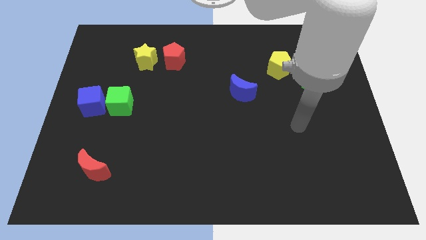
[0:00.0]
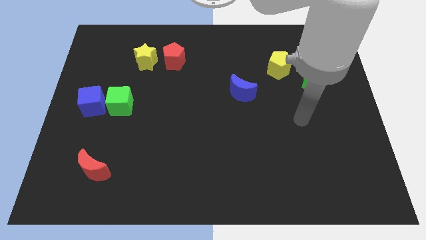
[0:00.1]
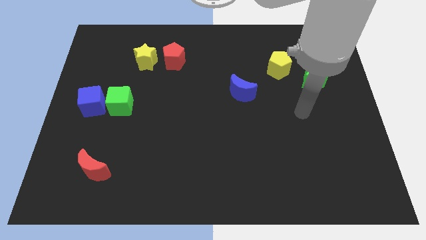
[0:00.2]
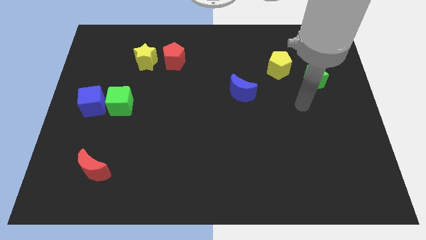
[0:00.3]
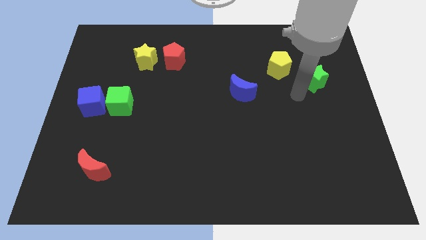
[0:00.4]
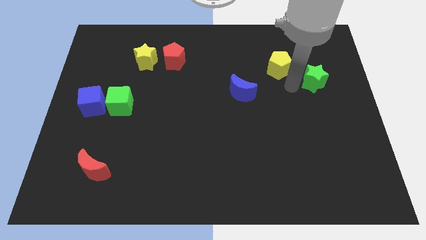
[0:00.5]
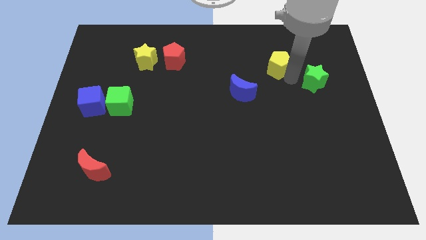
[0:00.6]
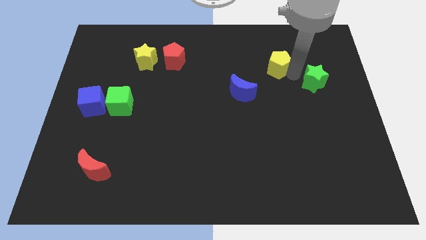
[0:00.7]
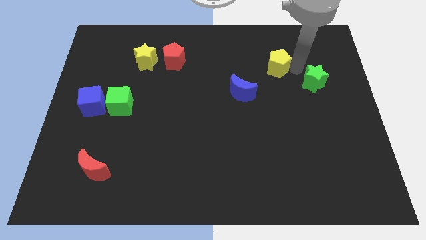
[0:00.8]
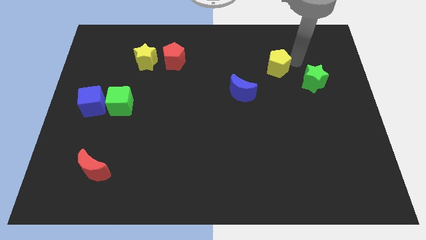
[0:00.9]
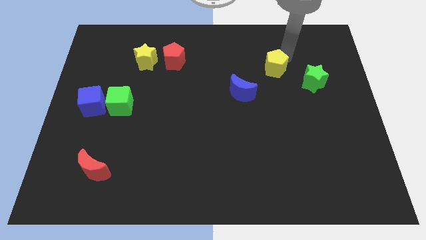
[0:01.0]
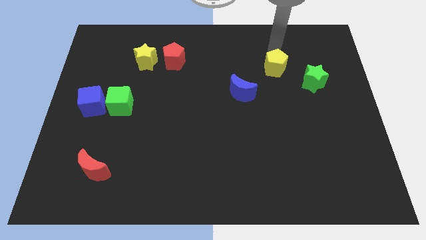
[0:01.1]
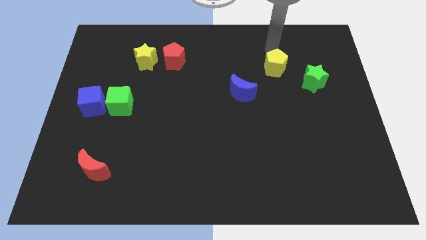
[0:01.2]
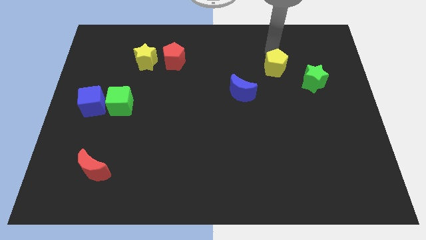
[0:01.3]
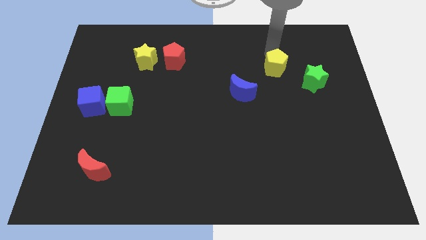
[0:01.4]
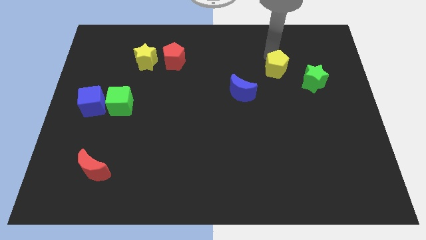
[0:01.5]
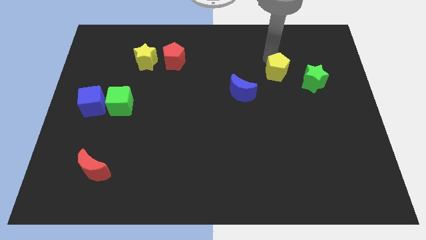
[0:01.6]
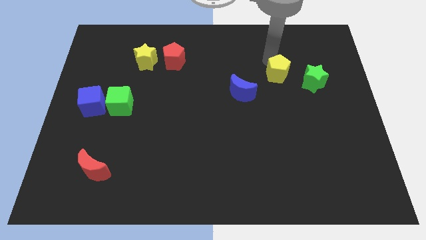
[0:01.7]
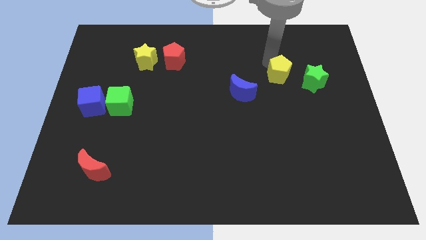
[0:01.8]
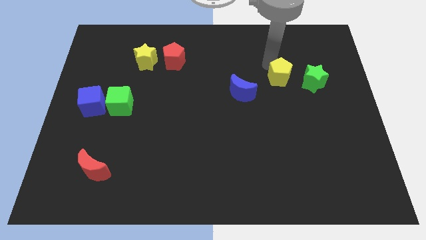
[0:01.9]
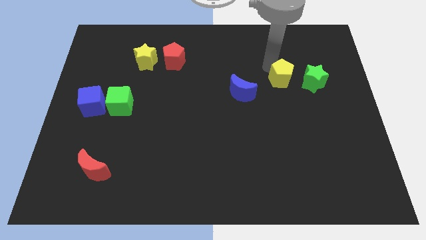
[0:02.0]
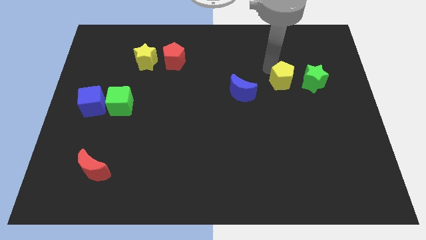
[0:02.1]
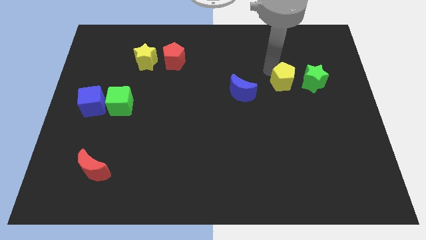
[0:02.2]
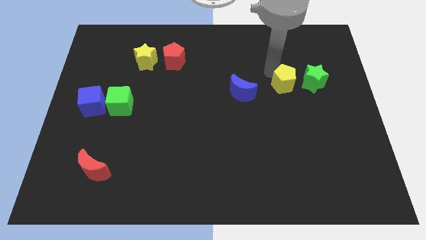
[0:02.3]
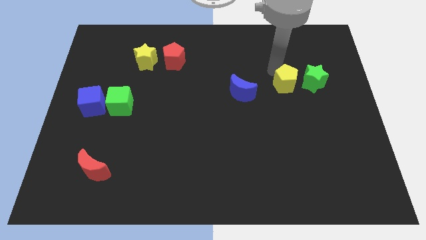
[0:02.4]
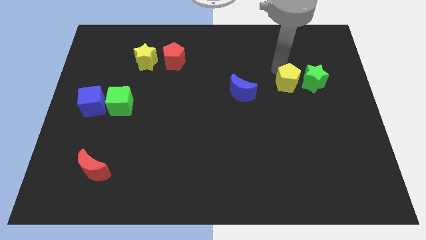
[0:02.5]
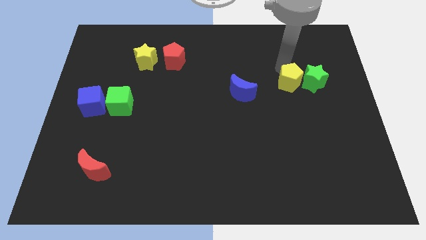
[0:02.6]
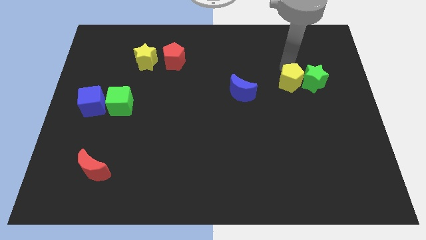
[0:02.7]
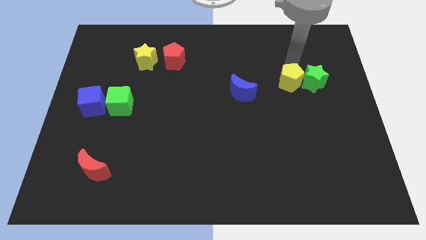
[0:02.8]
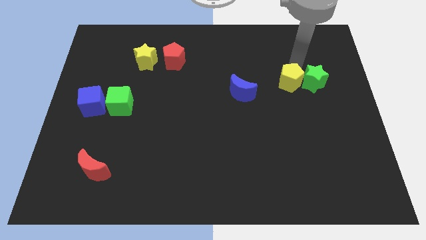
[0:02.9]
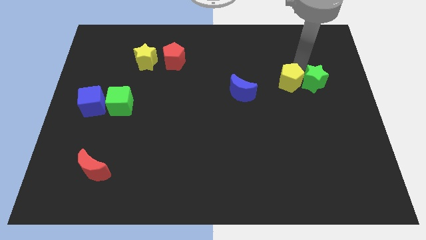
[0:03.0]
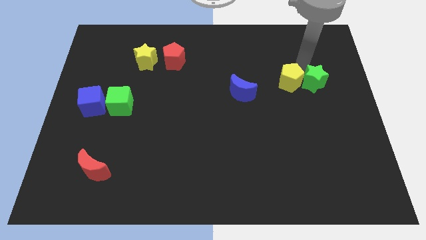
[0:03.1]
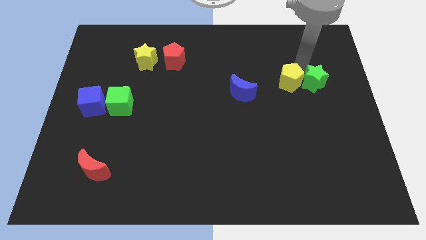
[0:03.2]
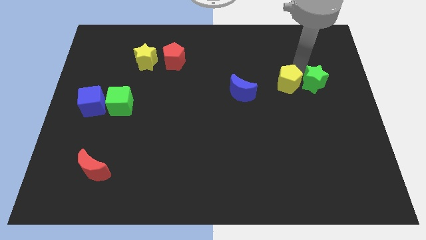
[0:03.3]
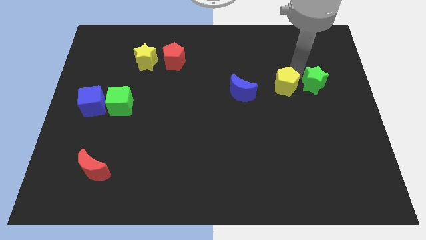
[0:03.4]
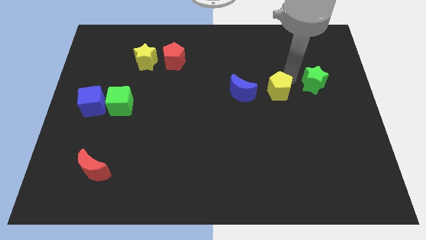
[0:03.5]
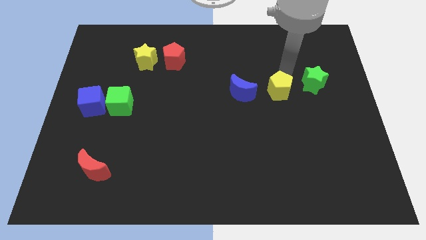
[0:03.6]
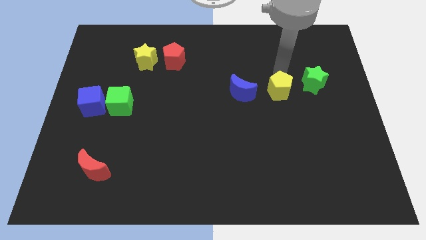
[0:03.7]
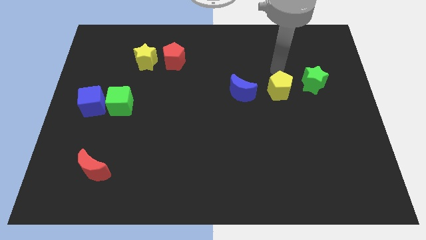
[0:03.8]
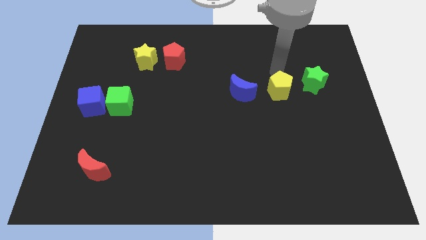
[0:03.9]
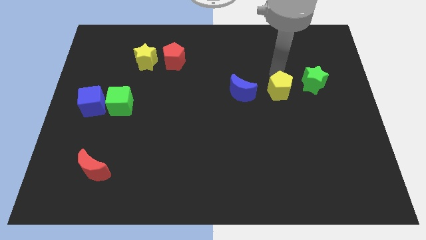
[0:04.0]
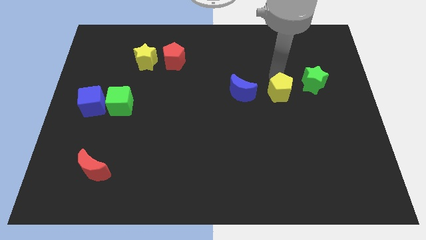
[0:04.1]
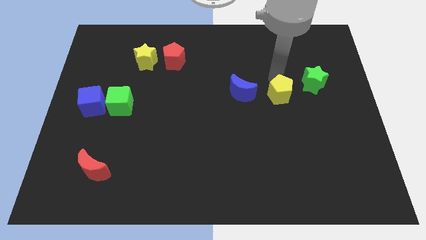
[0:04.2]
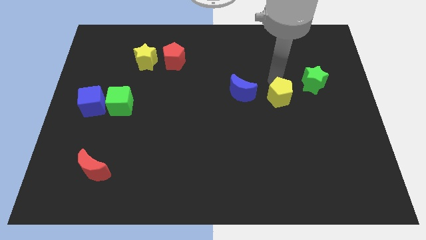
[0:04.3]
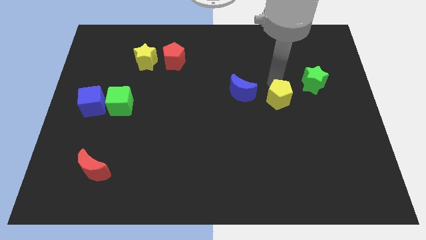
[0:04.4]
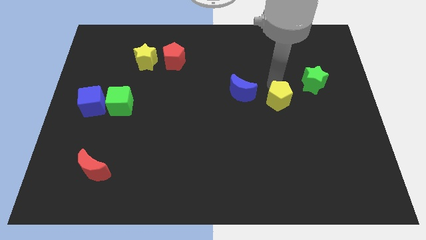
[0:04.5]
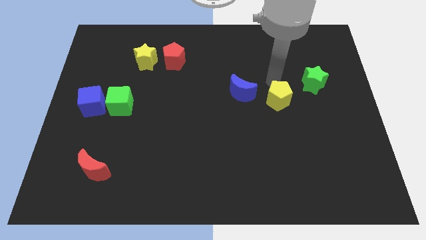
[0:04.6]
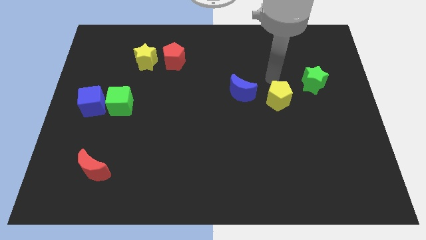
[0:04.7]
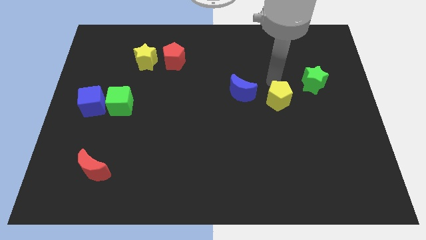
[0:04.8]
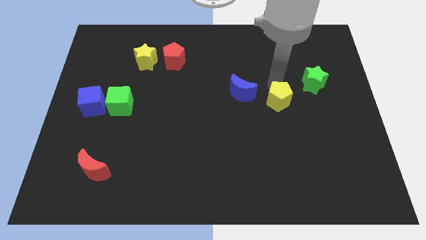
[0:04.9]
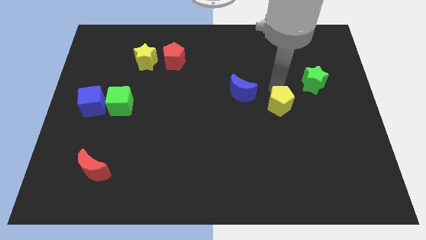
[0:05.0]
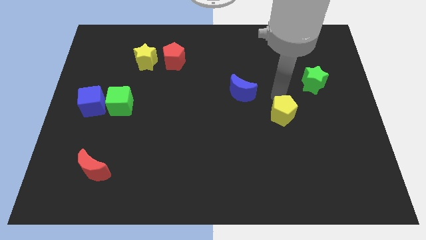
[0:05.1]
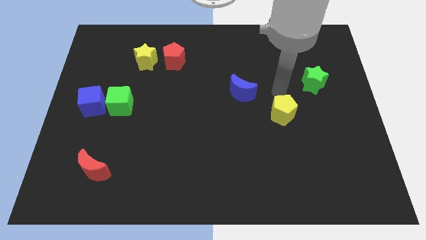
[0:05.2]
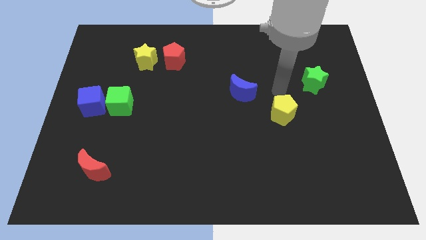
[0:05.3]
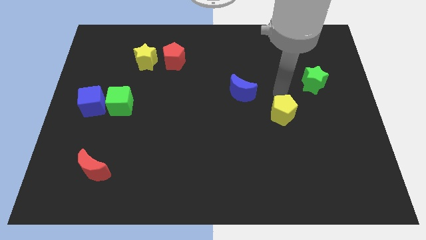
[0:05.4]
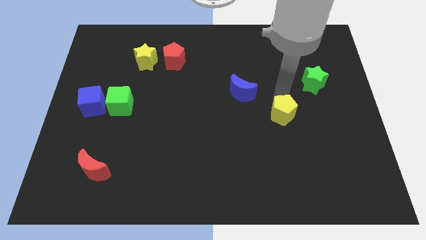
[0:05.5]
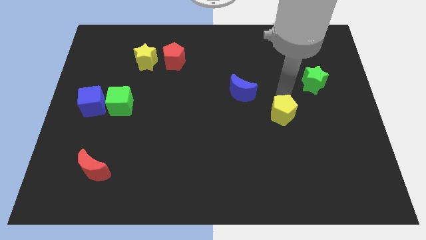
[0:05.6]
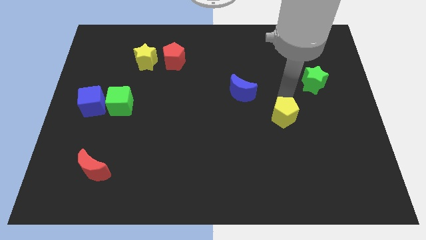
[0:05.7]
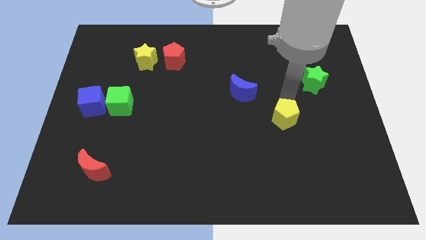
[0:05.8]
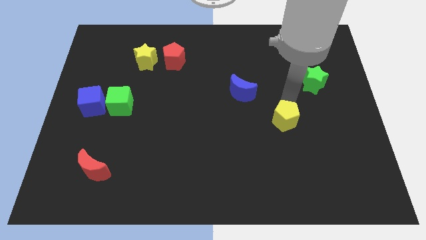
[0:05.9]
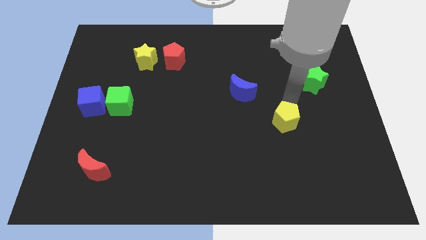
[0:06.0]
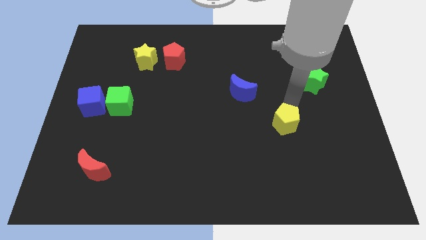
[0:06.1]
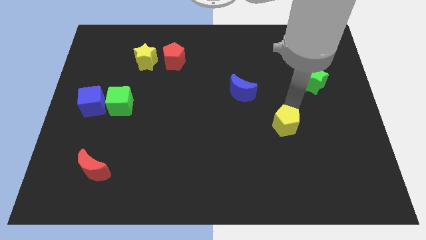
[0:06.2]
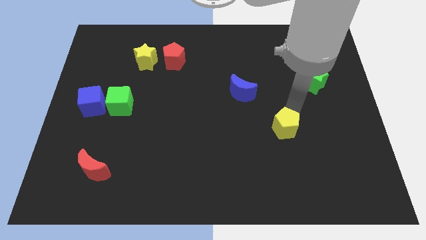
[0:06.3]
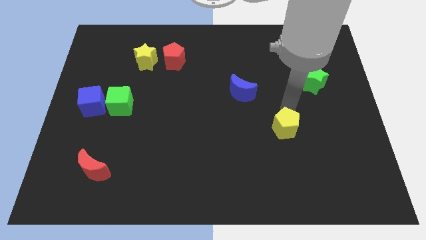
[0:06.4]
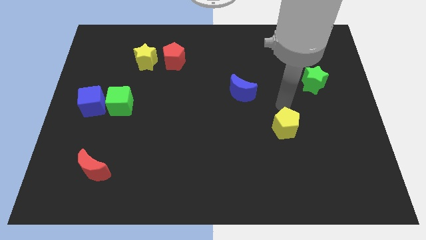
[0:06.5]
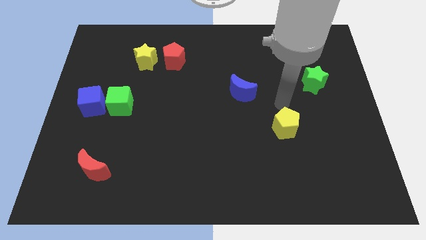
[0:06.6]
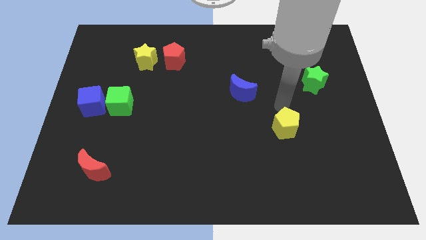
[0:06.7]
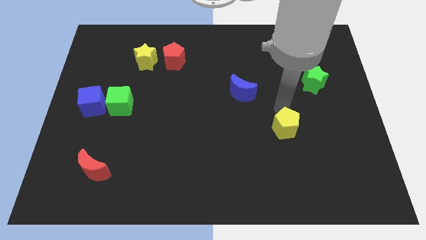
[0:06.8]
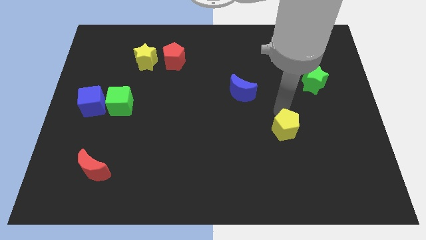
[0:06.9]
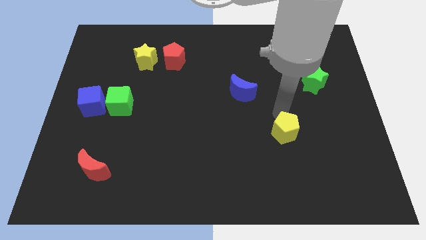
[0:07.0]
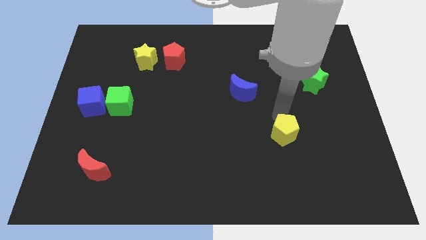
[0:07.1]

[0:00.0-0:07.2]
push the yellow pentagon downwards

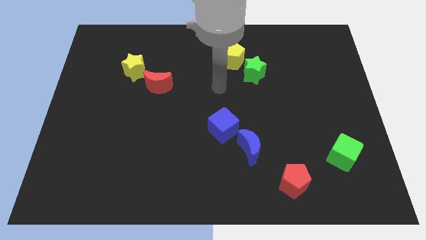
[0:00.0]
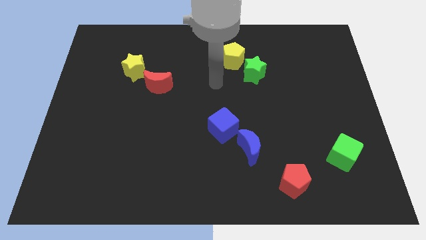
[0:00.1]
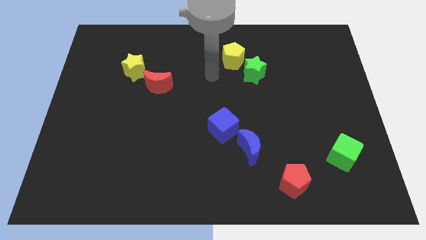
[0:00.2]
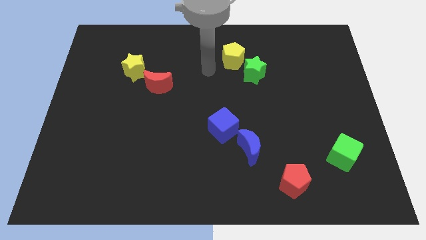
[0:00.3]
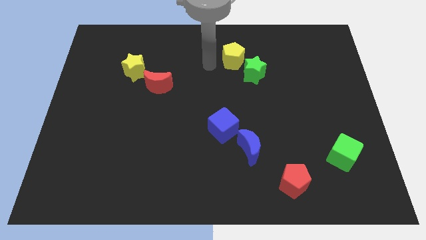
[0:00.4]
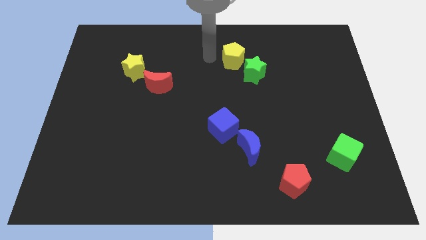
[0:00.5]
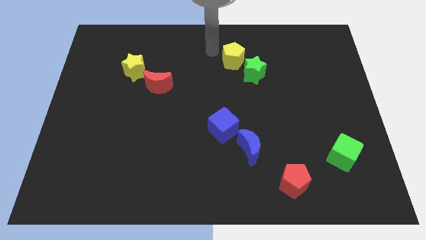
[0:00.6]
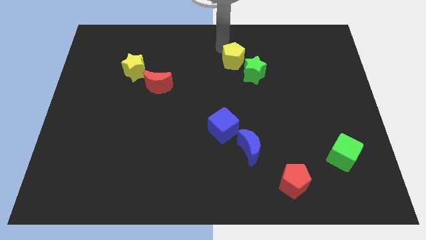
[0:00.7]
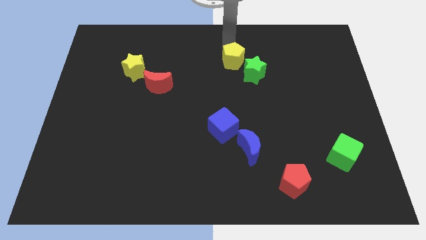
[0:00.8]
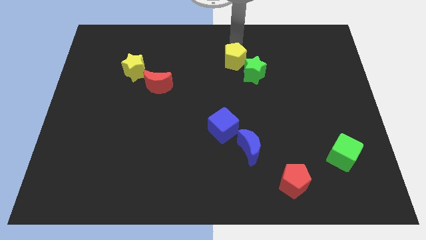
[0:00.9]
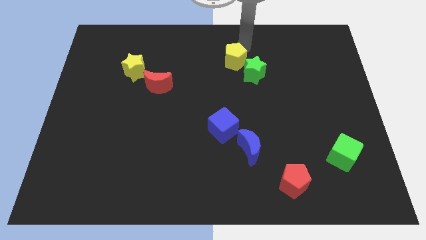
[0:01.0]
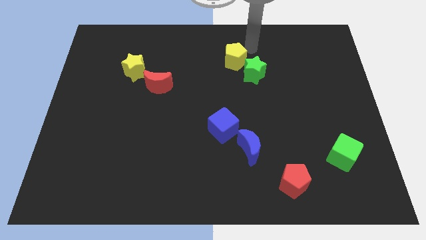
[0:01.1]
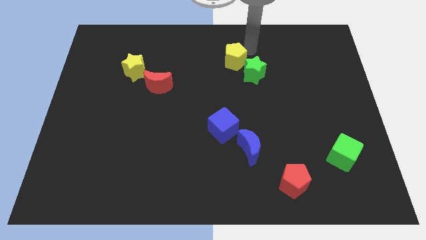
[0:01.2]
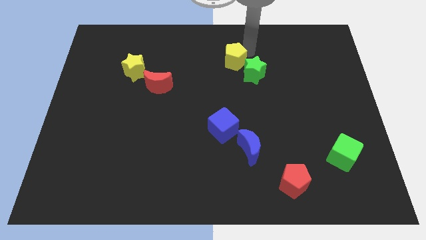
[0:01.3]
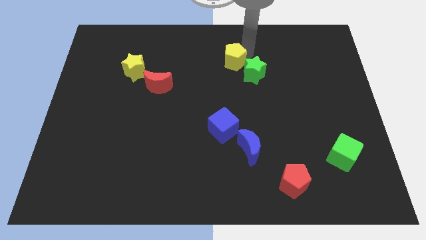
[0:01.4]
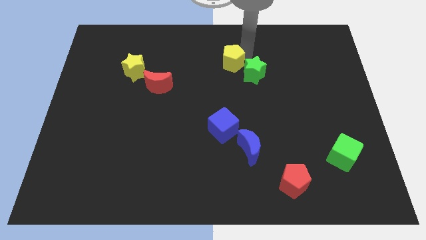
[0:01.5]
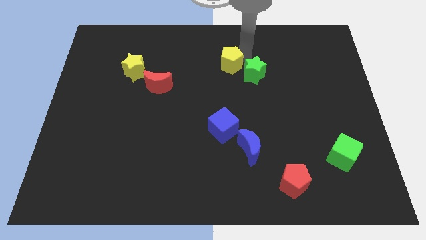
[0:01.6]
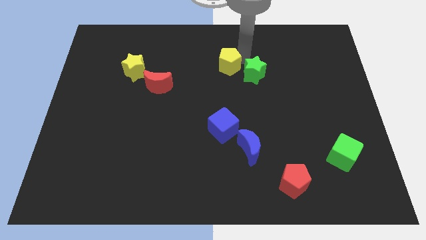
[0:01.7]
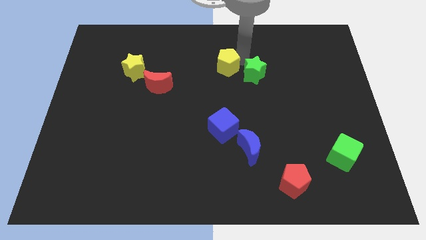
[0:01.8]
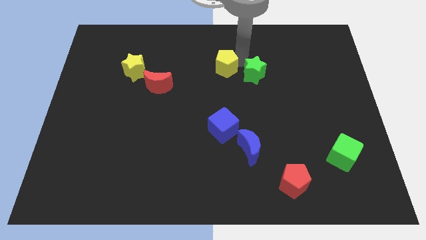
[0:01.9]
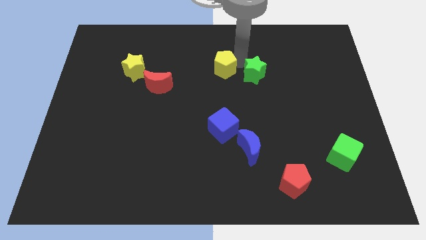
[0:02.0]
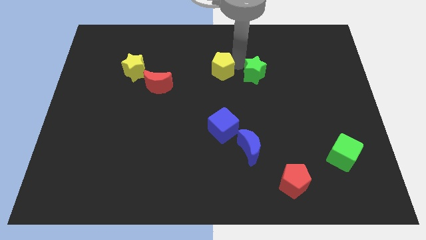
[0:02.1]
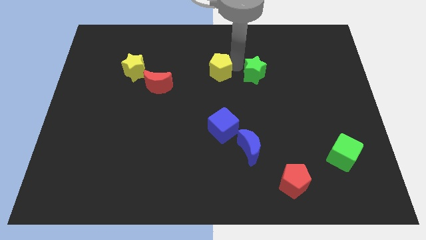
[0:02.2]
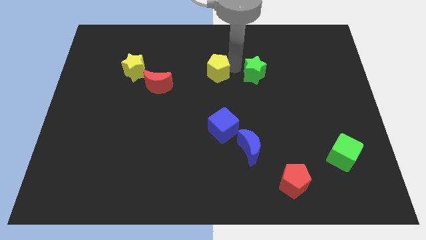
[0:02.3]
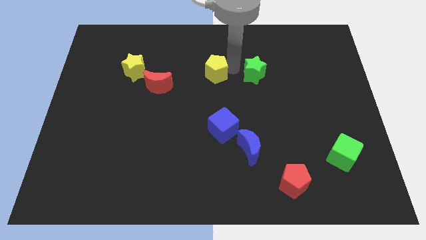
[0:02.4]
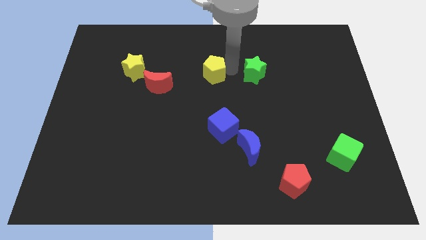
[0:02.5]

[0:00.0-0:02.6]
push the yellow pentagon downwards and to the left slightly
